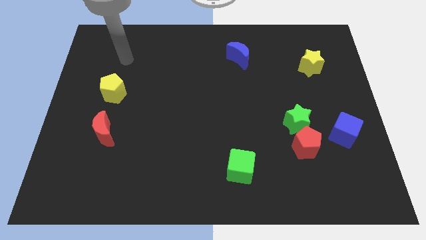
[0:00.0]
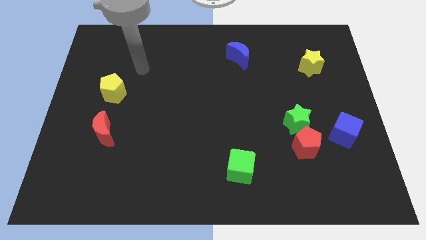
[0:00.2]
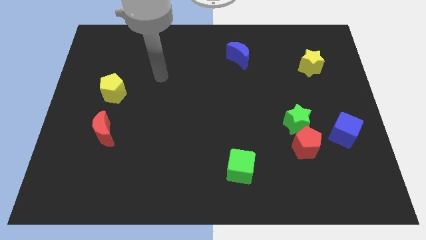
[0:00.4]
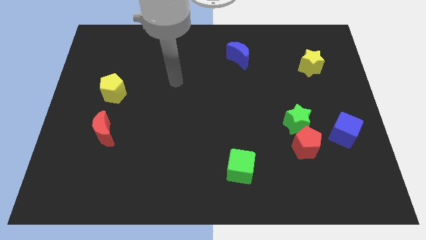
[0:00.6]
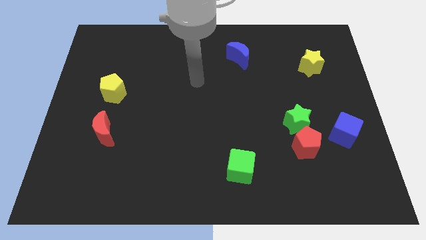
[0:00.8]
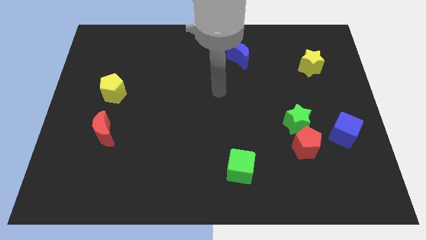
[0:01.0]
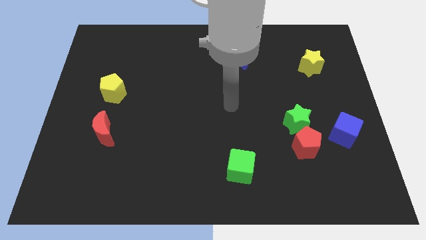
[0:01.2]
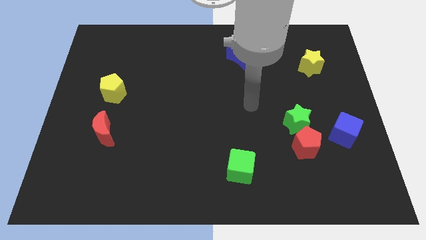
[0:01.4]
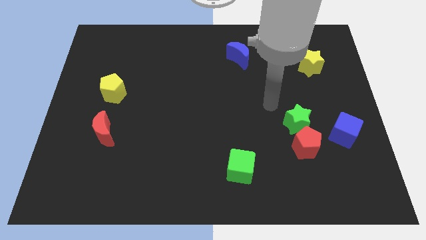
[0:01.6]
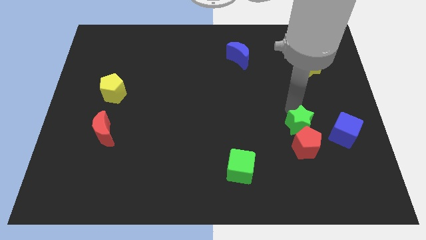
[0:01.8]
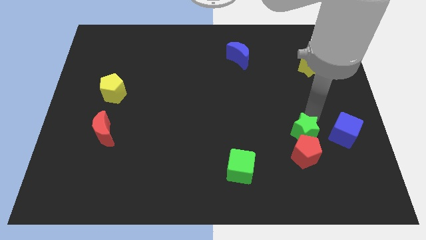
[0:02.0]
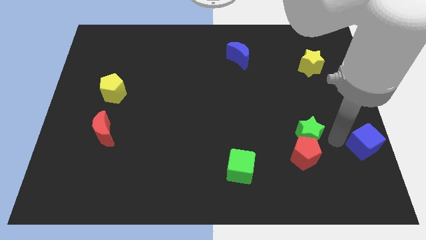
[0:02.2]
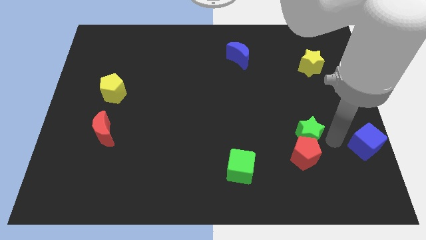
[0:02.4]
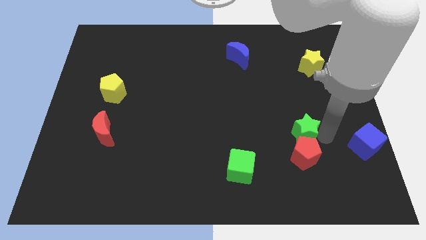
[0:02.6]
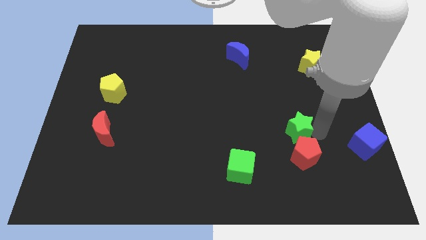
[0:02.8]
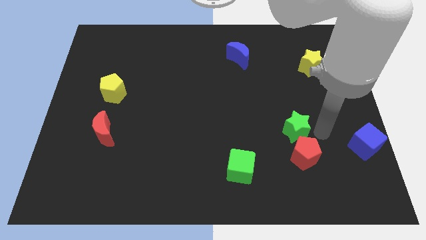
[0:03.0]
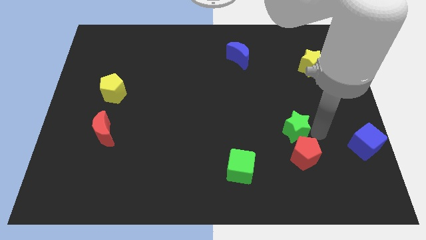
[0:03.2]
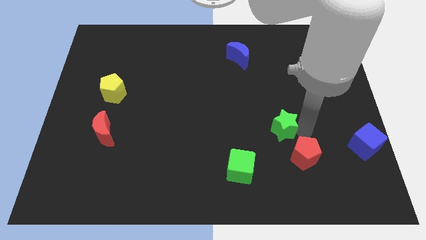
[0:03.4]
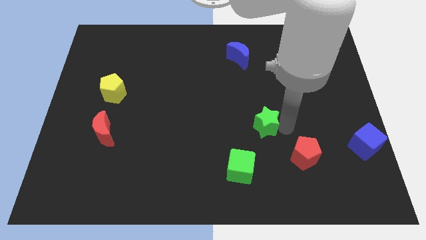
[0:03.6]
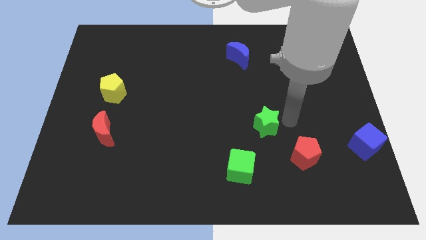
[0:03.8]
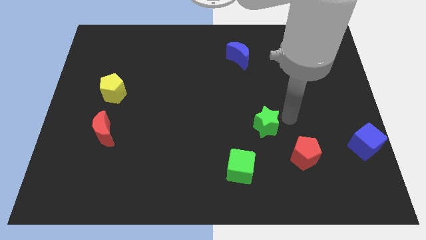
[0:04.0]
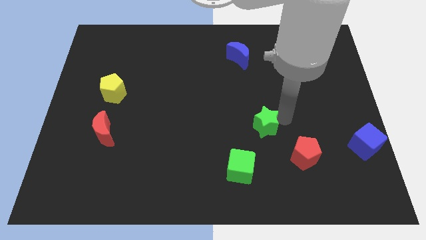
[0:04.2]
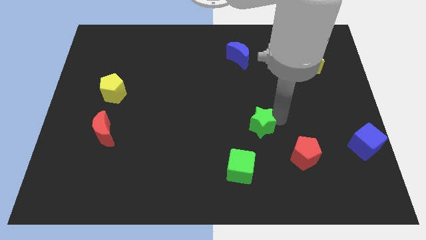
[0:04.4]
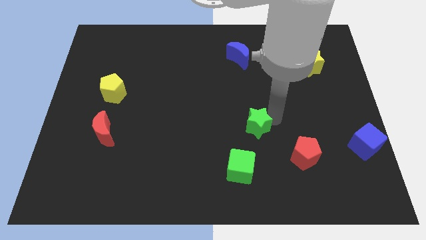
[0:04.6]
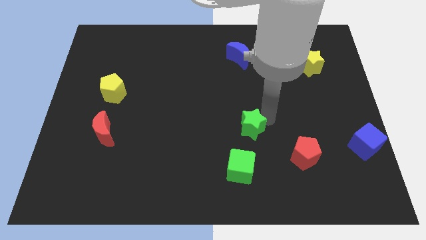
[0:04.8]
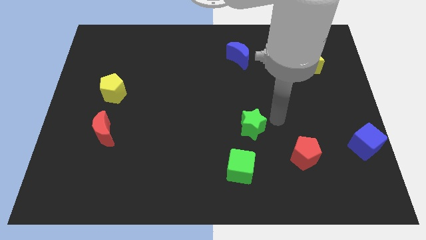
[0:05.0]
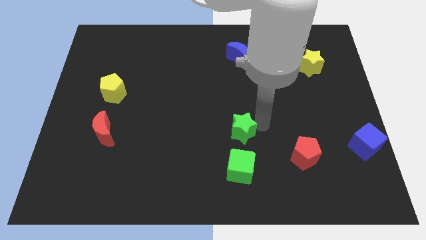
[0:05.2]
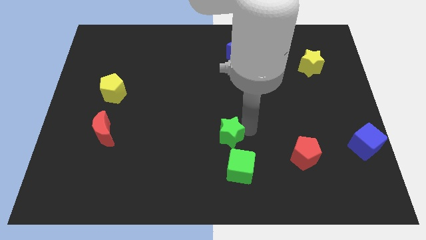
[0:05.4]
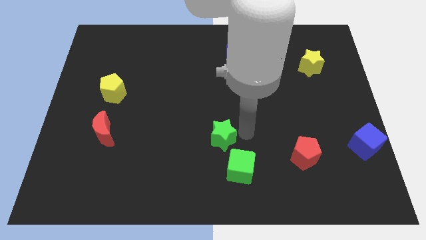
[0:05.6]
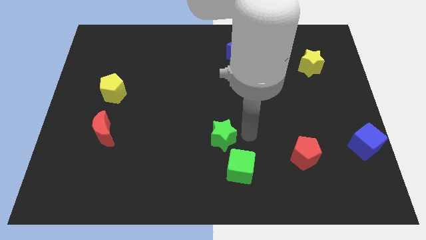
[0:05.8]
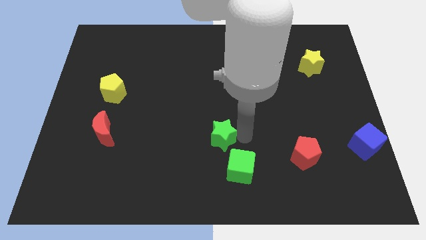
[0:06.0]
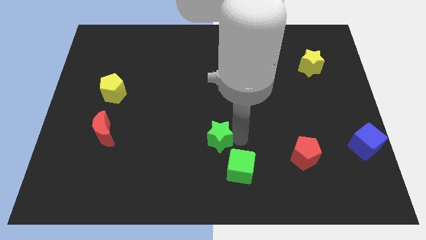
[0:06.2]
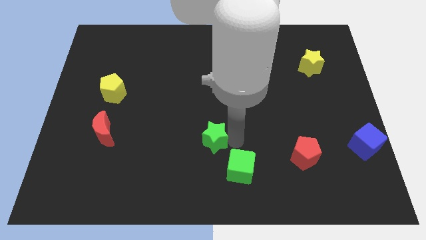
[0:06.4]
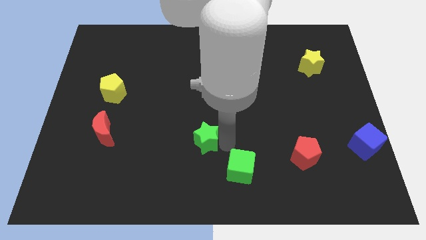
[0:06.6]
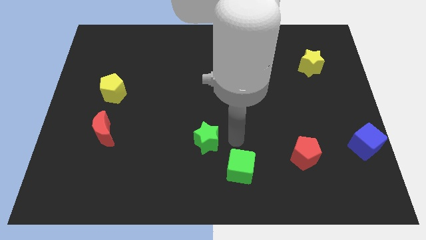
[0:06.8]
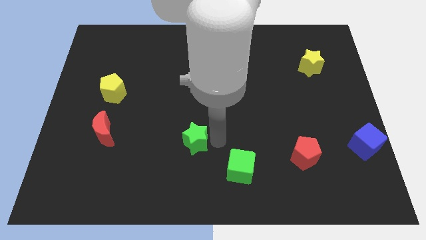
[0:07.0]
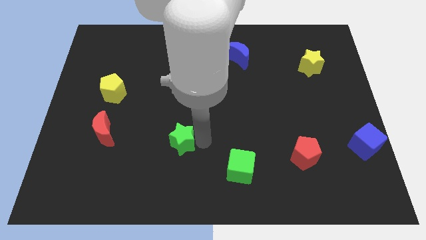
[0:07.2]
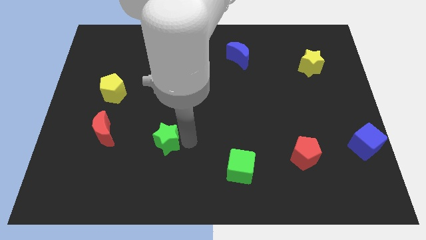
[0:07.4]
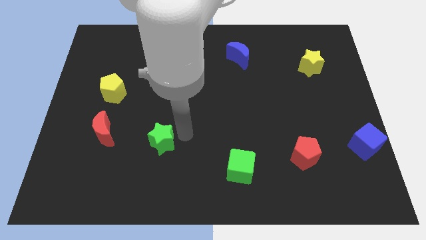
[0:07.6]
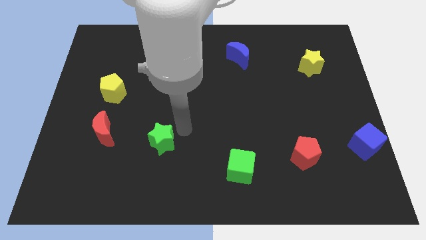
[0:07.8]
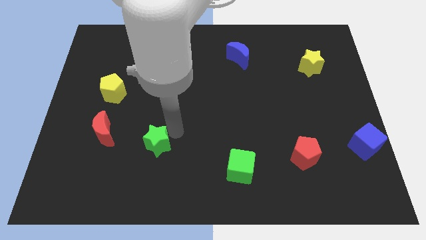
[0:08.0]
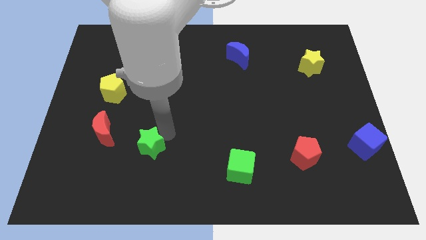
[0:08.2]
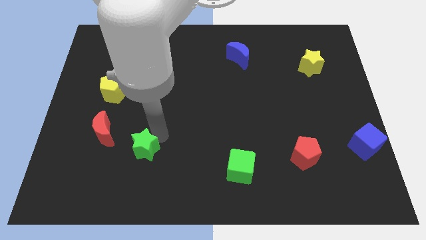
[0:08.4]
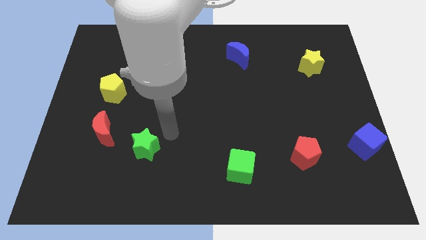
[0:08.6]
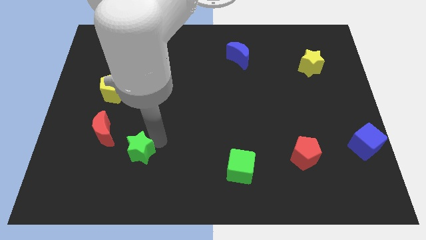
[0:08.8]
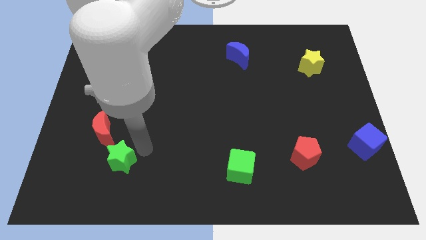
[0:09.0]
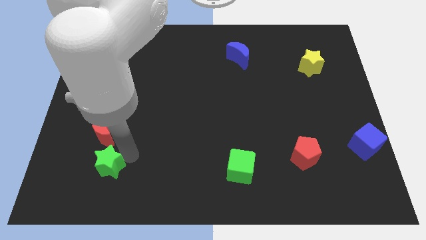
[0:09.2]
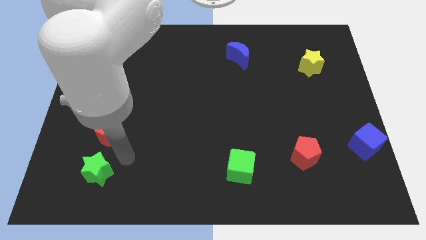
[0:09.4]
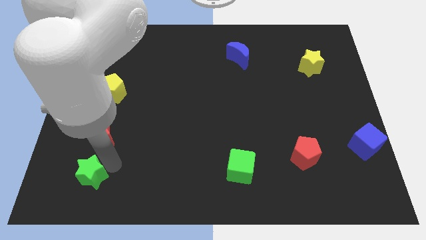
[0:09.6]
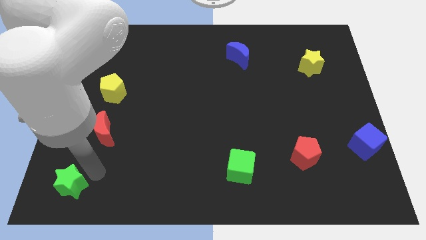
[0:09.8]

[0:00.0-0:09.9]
slide the green star to the lower left corner

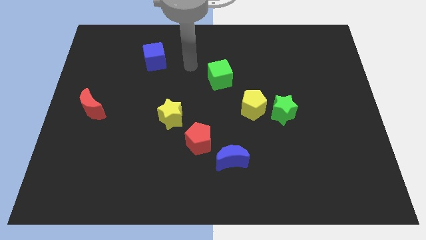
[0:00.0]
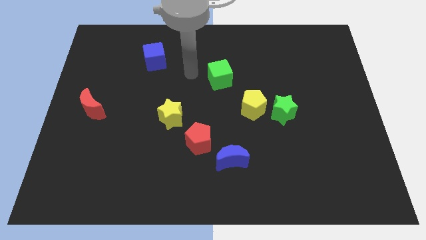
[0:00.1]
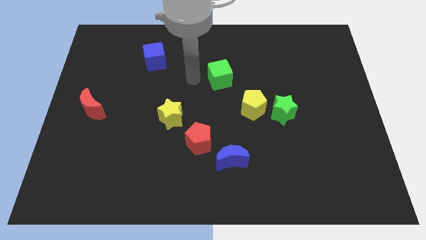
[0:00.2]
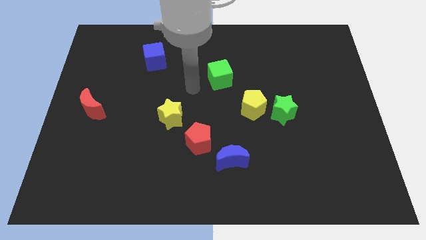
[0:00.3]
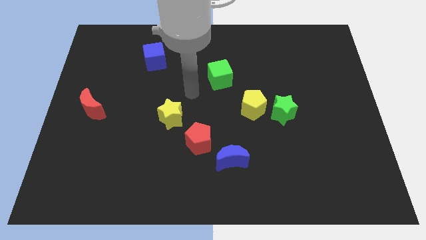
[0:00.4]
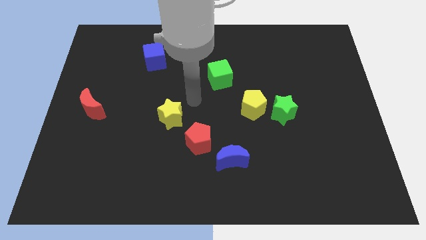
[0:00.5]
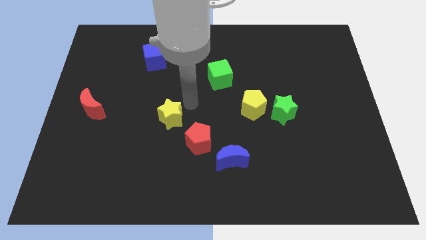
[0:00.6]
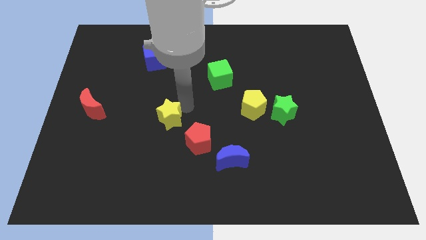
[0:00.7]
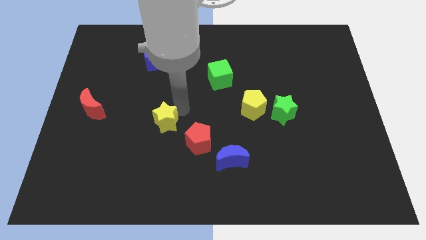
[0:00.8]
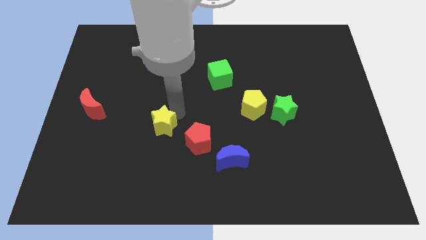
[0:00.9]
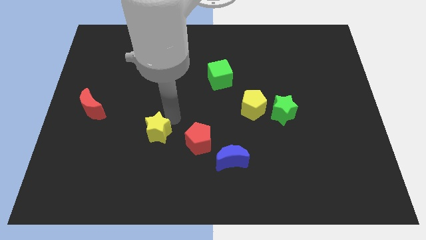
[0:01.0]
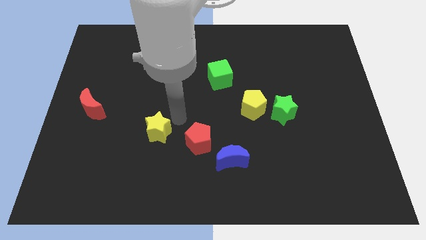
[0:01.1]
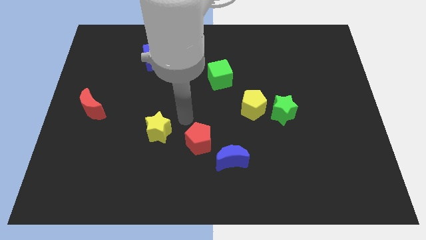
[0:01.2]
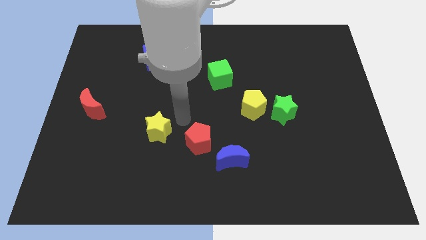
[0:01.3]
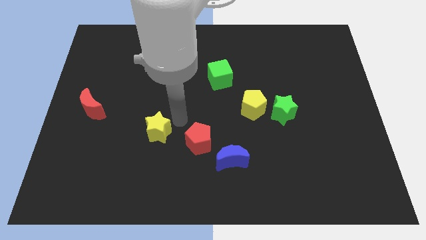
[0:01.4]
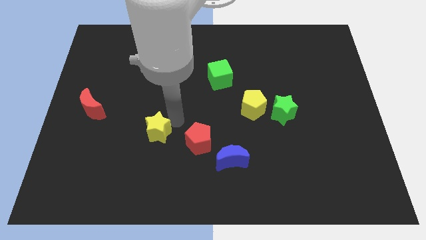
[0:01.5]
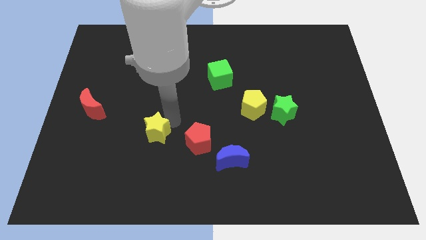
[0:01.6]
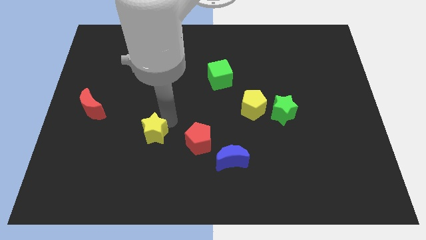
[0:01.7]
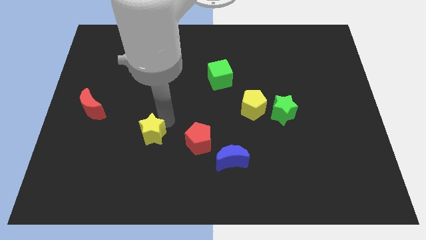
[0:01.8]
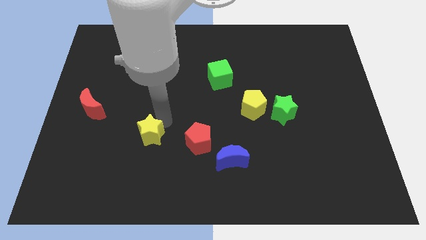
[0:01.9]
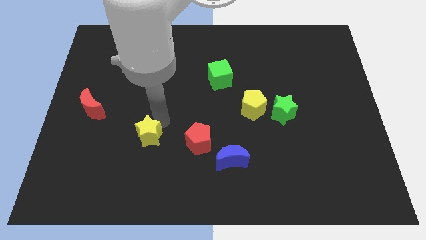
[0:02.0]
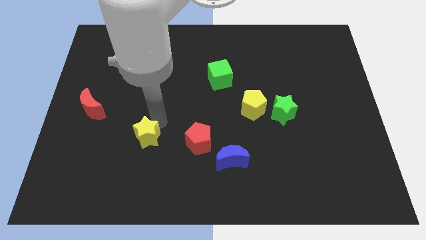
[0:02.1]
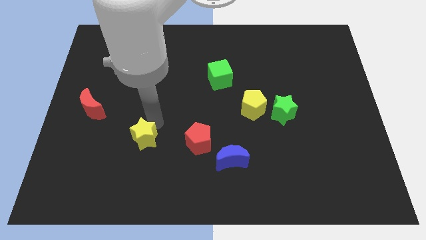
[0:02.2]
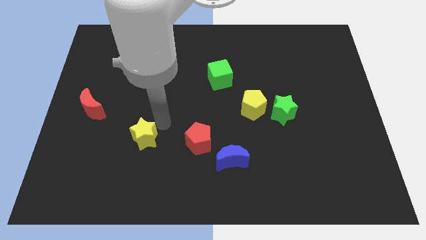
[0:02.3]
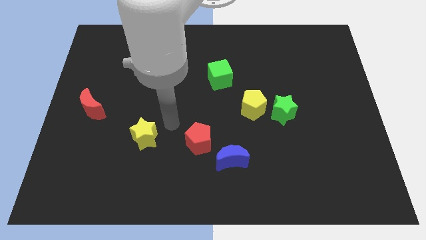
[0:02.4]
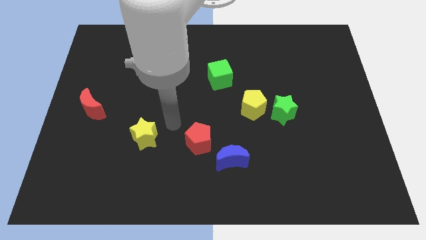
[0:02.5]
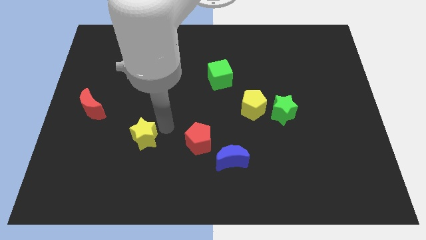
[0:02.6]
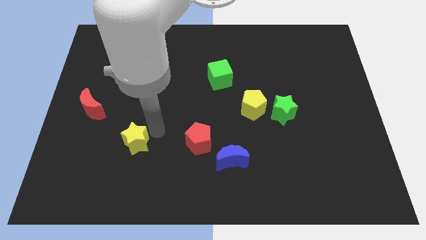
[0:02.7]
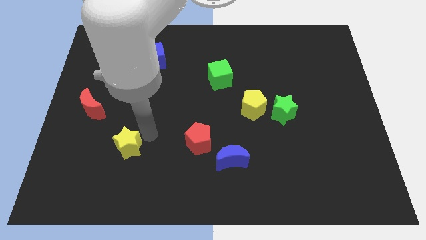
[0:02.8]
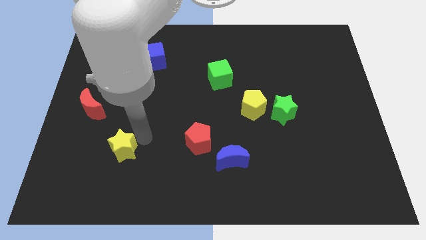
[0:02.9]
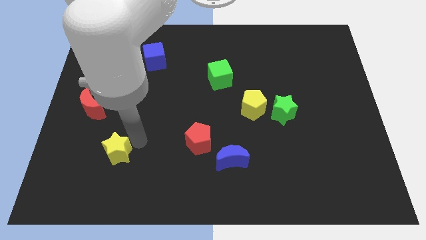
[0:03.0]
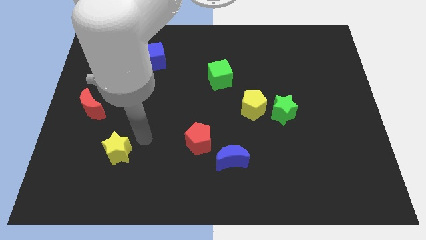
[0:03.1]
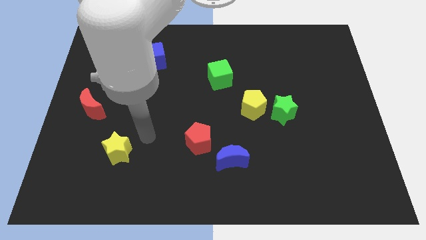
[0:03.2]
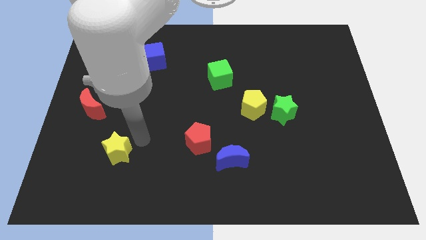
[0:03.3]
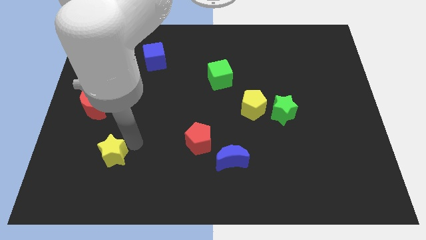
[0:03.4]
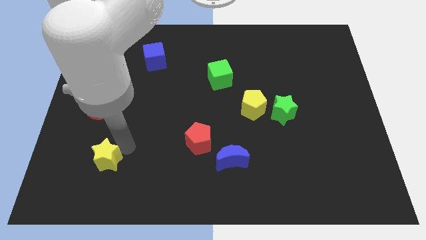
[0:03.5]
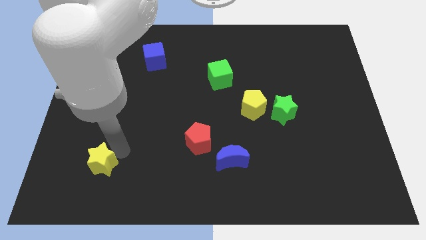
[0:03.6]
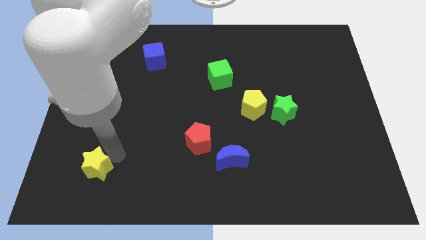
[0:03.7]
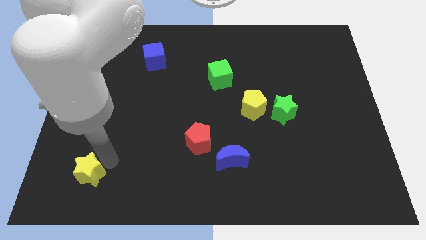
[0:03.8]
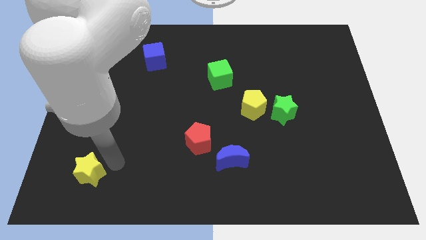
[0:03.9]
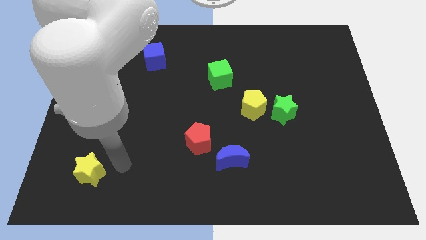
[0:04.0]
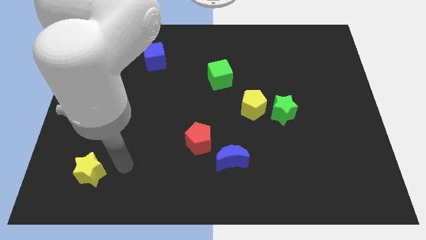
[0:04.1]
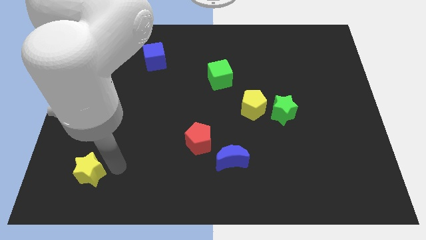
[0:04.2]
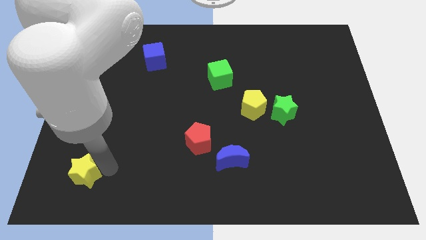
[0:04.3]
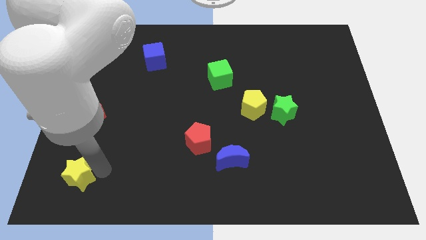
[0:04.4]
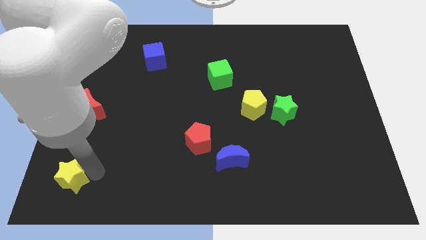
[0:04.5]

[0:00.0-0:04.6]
put the yellow star to the lower left corner
